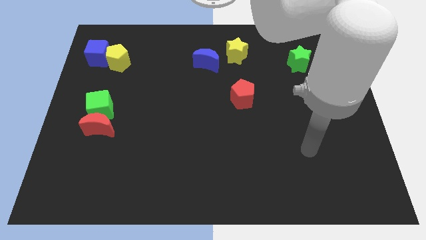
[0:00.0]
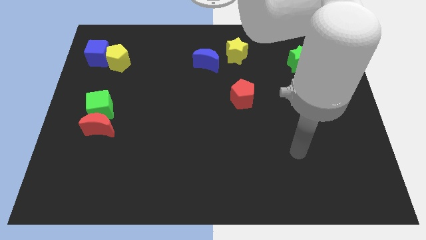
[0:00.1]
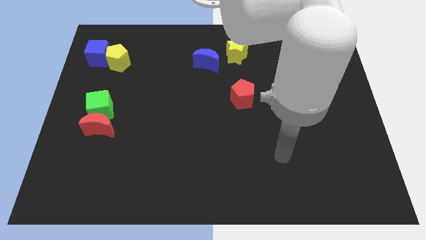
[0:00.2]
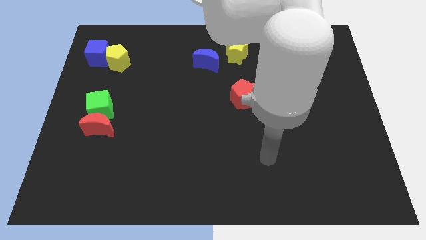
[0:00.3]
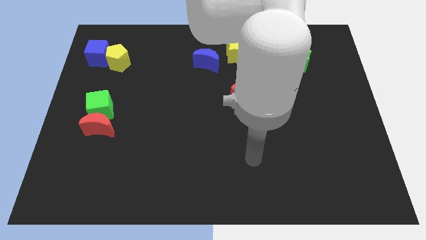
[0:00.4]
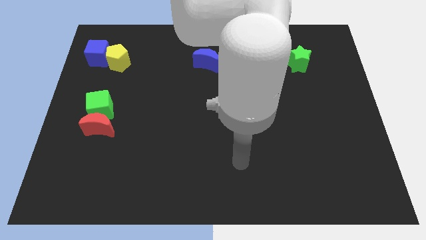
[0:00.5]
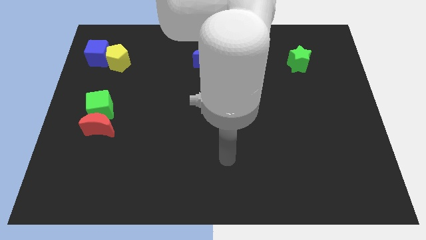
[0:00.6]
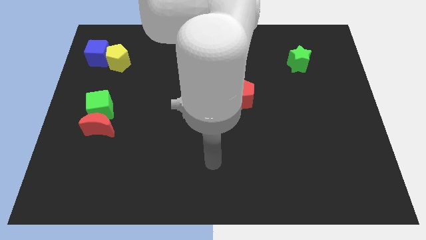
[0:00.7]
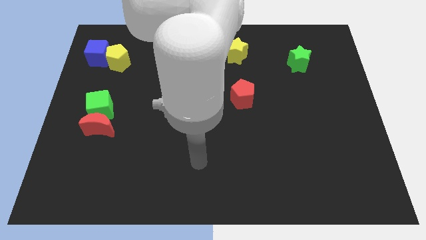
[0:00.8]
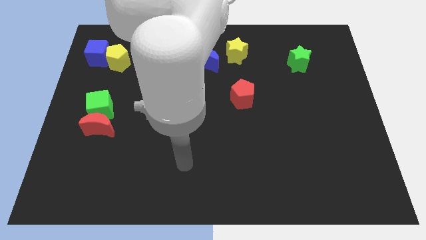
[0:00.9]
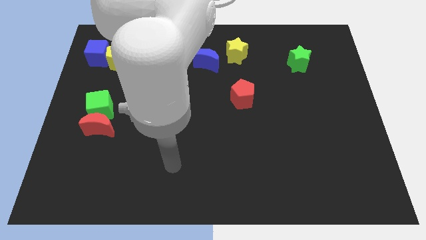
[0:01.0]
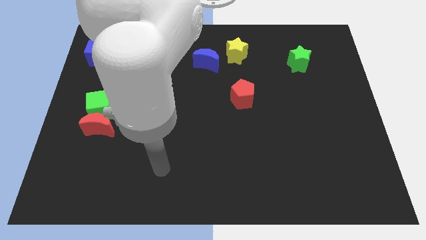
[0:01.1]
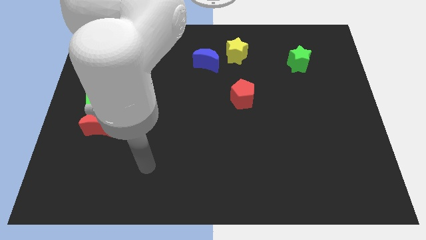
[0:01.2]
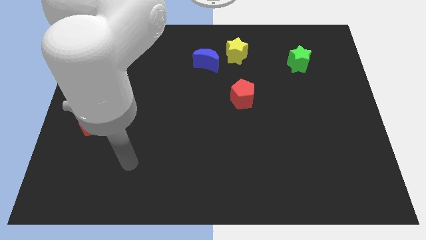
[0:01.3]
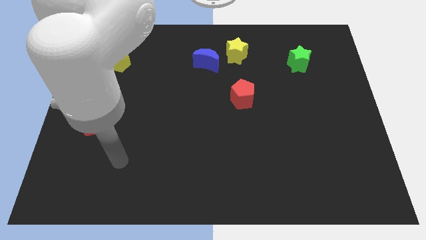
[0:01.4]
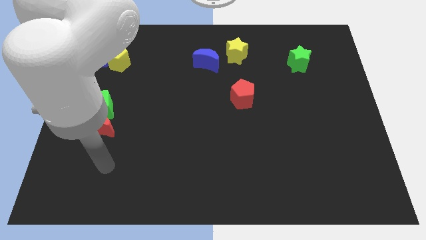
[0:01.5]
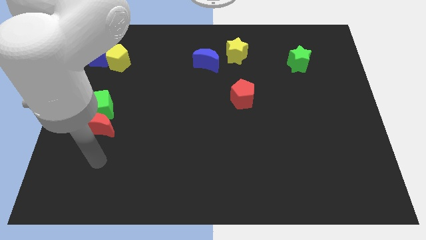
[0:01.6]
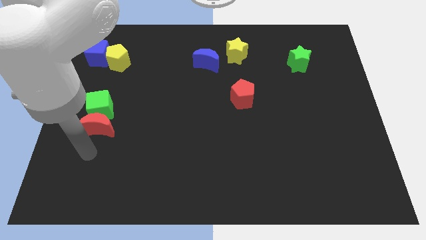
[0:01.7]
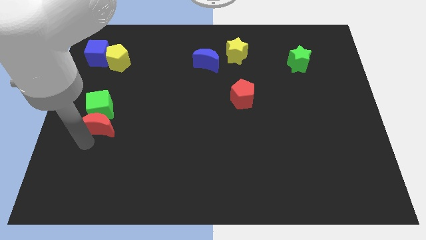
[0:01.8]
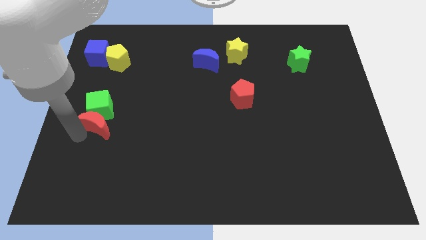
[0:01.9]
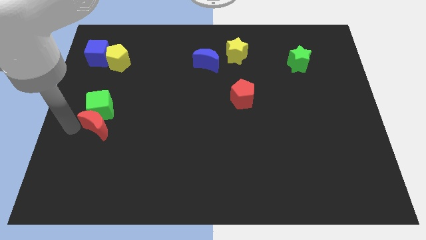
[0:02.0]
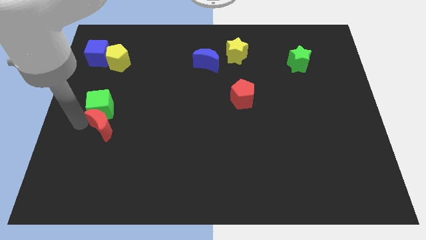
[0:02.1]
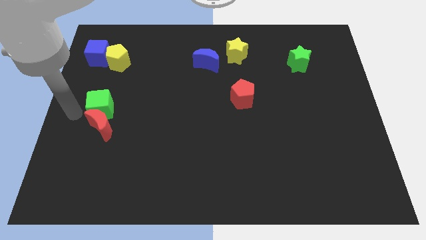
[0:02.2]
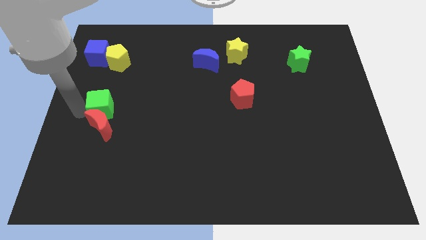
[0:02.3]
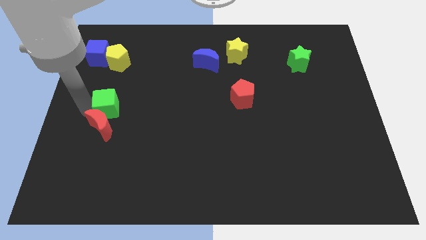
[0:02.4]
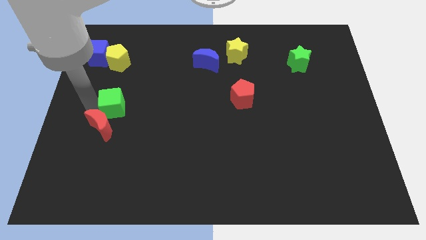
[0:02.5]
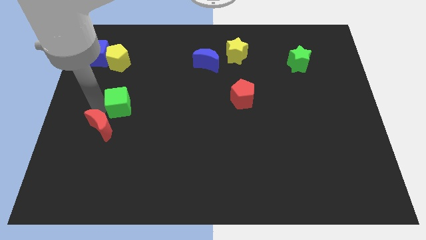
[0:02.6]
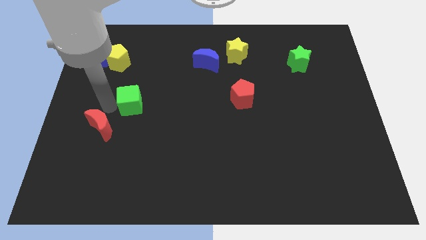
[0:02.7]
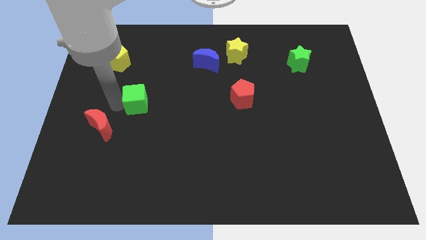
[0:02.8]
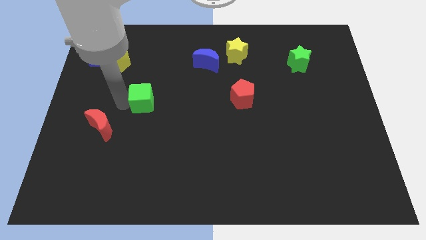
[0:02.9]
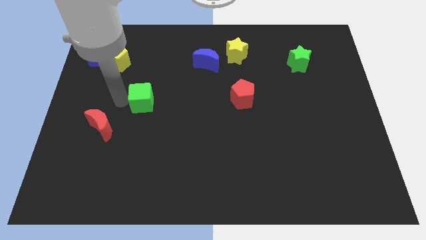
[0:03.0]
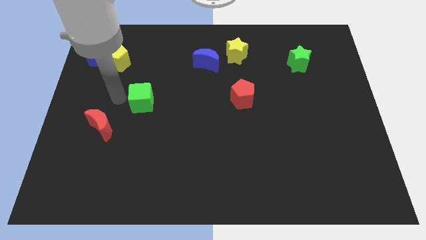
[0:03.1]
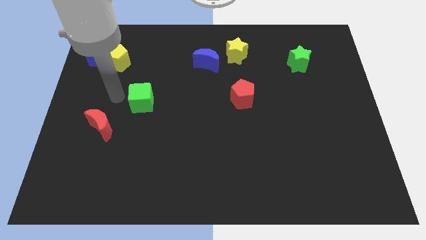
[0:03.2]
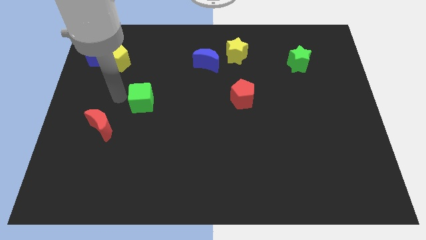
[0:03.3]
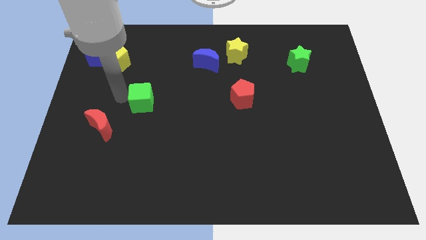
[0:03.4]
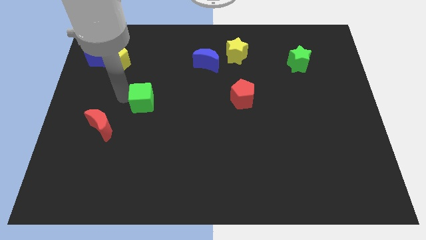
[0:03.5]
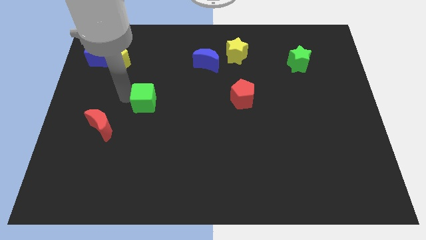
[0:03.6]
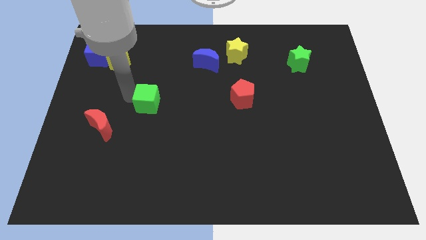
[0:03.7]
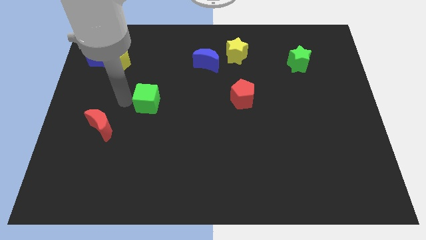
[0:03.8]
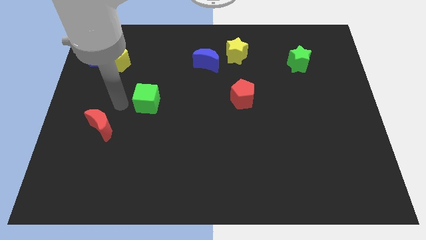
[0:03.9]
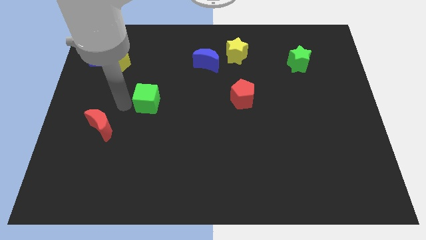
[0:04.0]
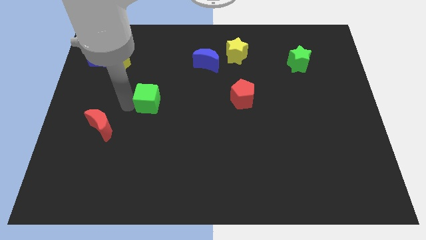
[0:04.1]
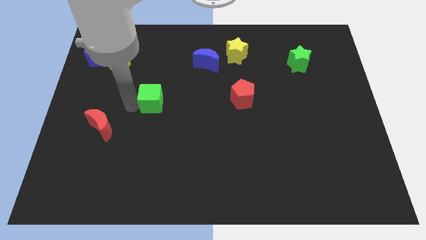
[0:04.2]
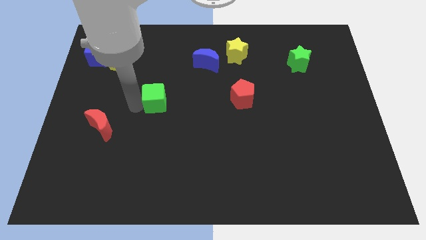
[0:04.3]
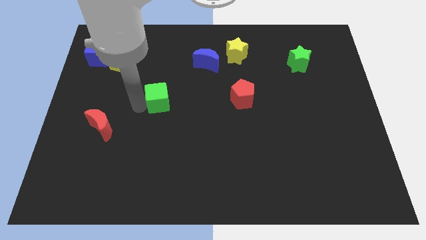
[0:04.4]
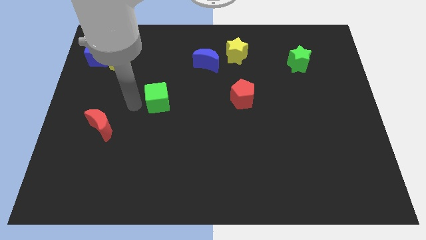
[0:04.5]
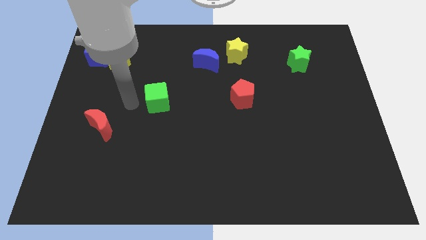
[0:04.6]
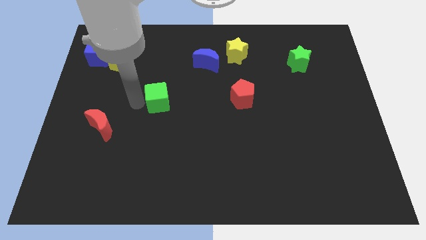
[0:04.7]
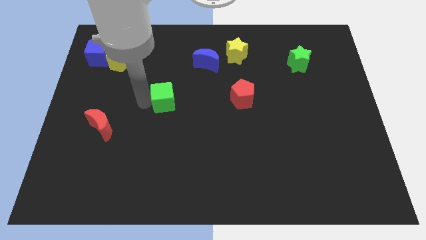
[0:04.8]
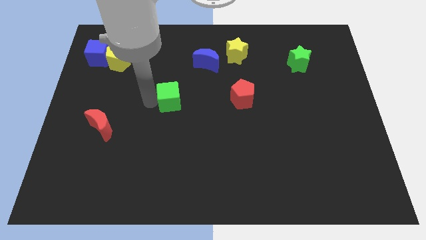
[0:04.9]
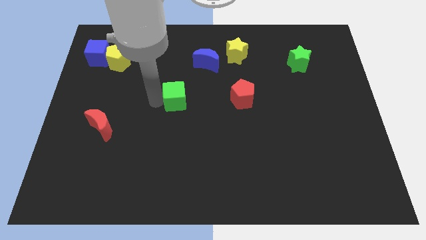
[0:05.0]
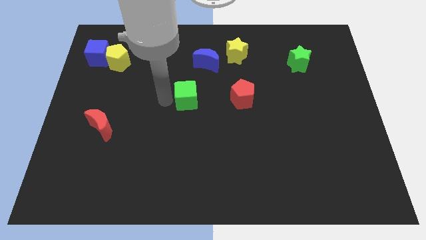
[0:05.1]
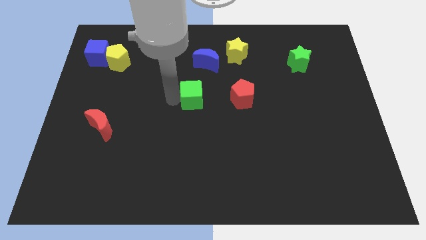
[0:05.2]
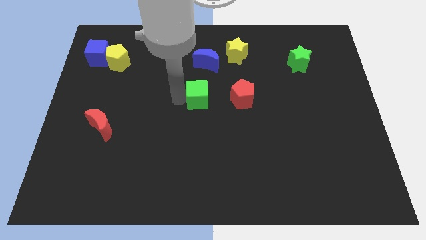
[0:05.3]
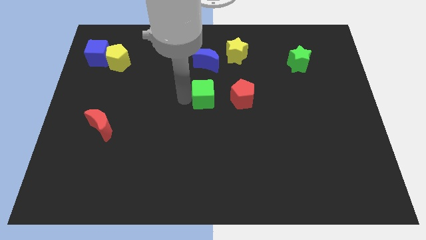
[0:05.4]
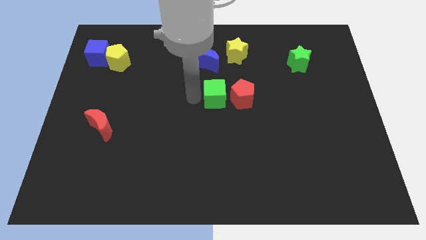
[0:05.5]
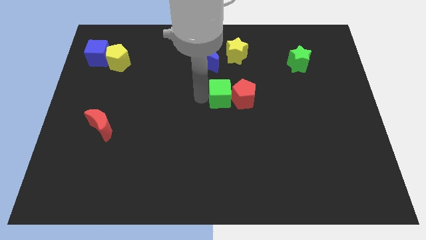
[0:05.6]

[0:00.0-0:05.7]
slide the green cube close to the red pentagon
